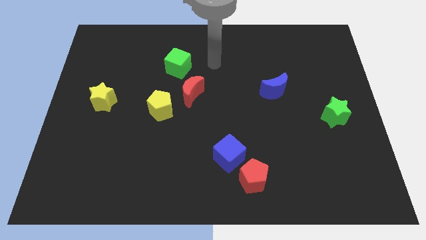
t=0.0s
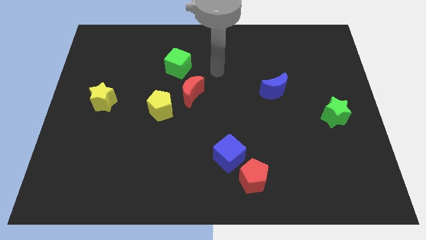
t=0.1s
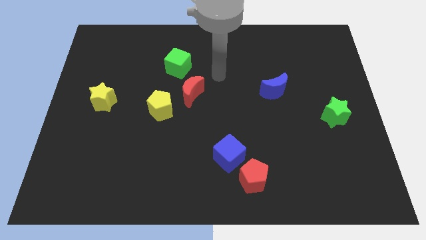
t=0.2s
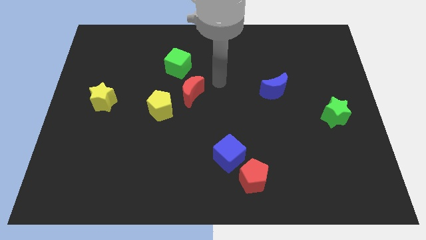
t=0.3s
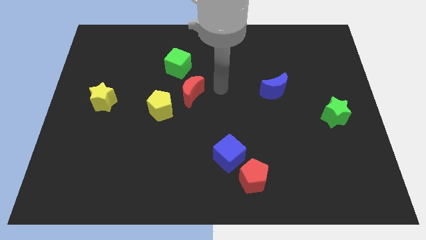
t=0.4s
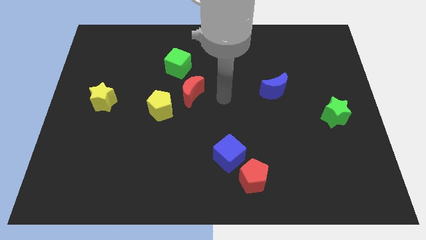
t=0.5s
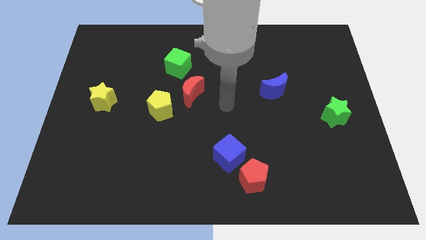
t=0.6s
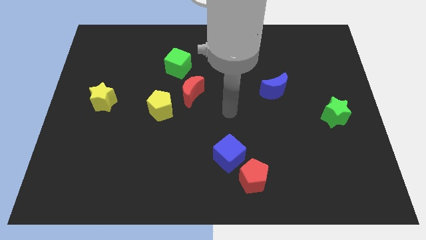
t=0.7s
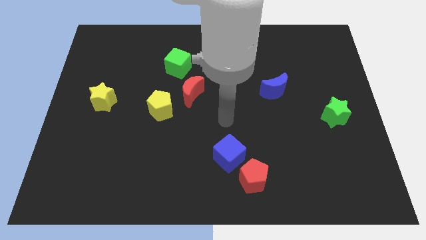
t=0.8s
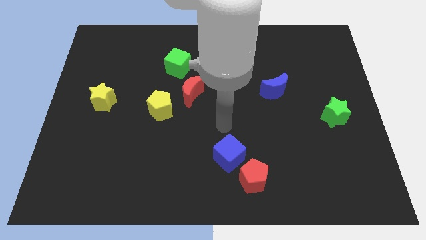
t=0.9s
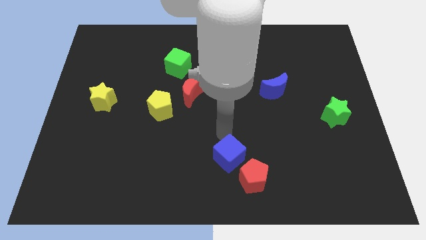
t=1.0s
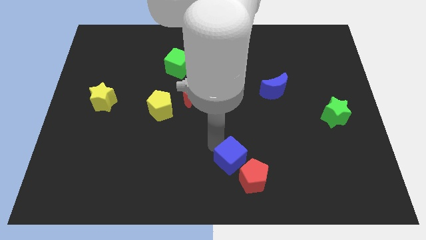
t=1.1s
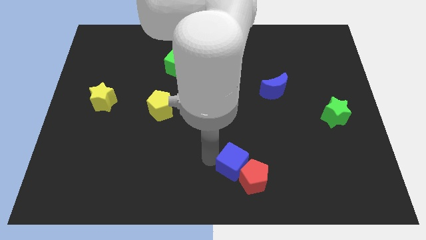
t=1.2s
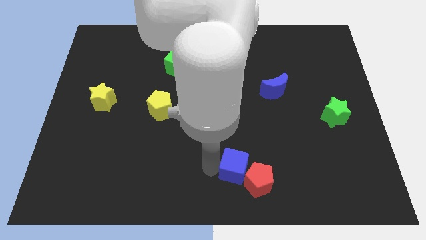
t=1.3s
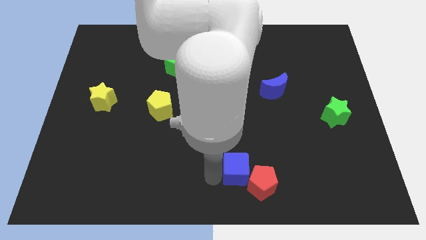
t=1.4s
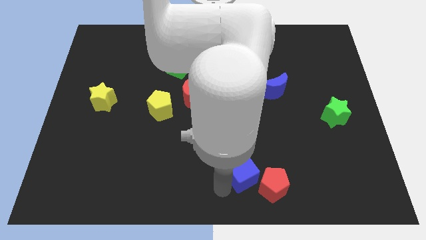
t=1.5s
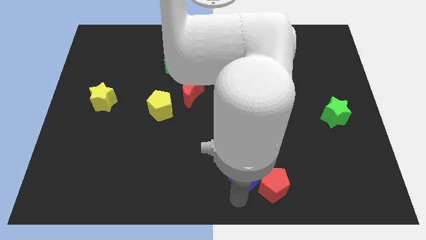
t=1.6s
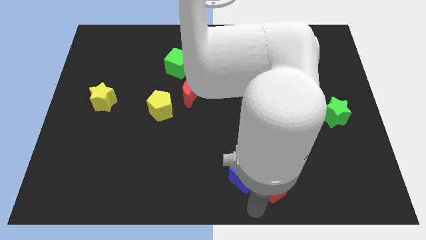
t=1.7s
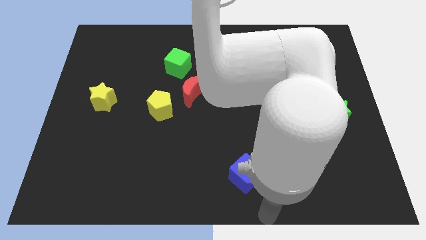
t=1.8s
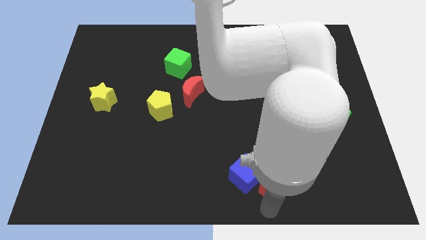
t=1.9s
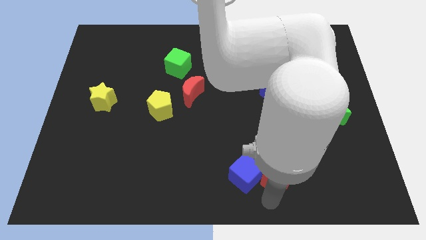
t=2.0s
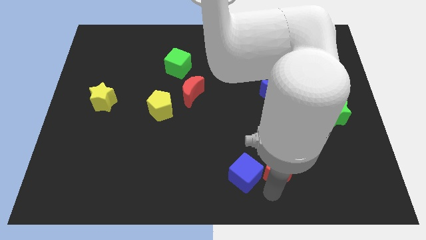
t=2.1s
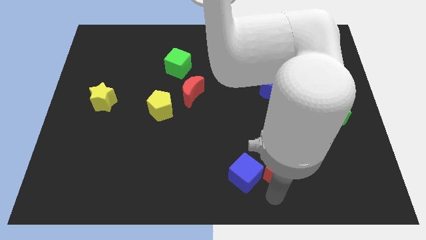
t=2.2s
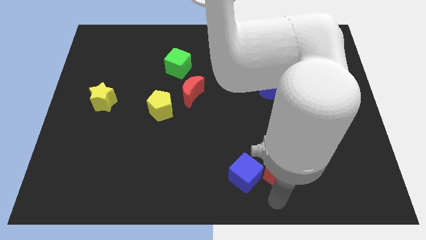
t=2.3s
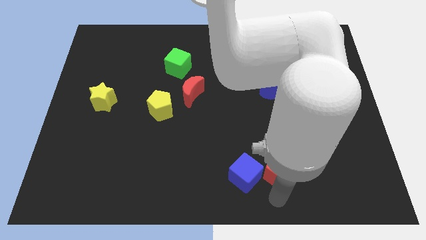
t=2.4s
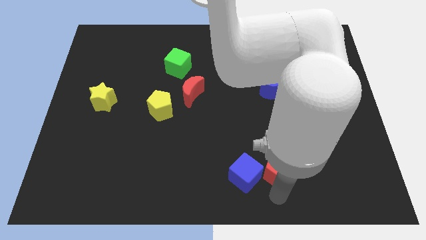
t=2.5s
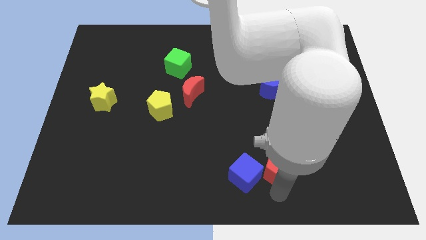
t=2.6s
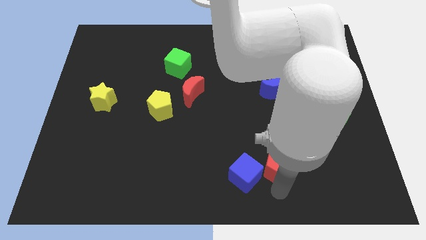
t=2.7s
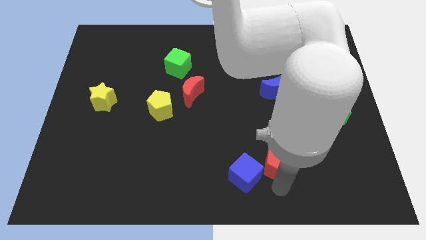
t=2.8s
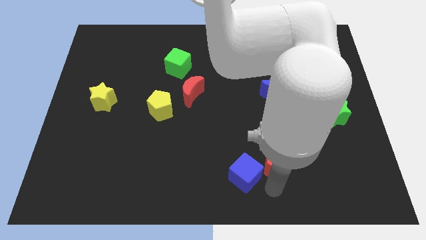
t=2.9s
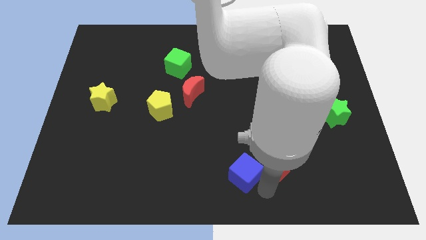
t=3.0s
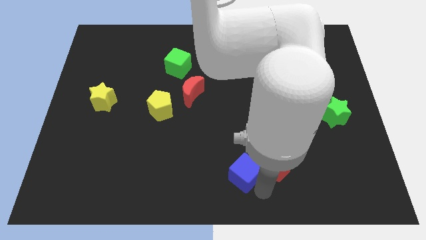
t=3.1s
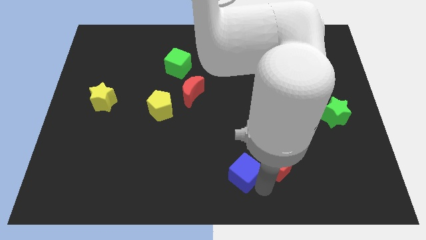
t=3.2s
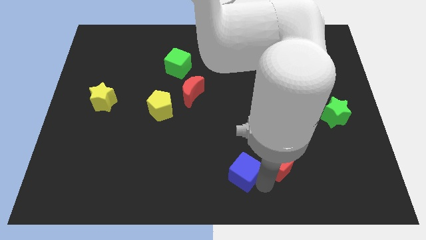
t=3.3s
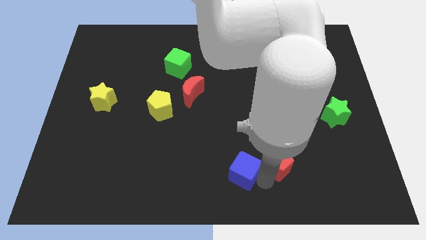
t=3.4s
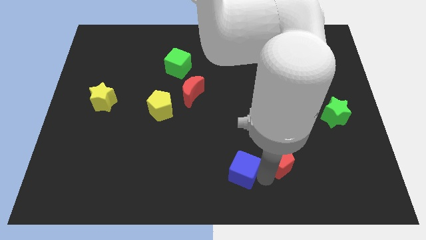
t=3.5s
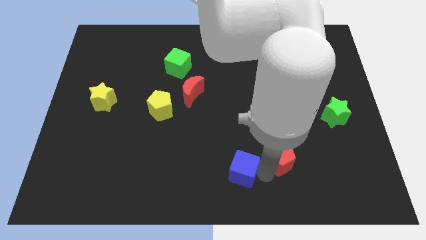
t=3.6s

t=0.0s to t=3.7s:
slightly move the red pentagon up and to the right diagonally

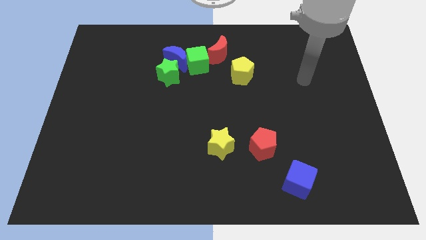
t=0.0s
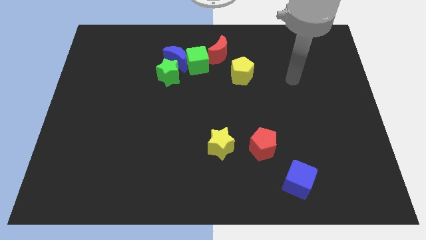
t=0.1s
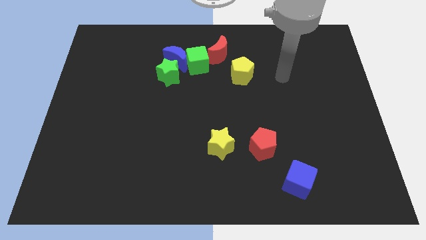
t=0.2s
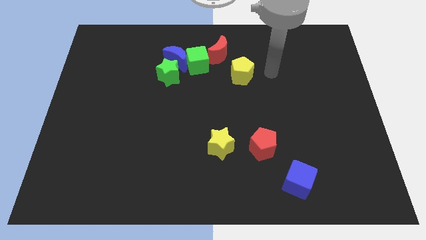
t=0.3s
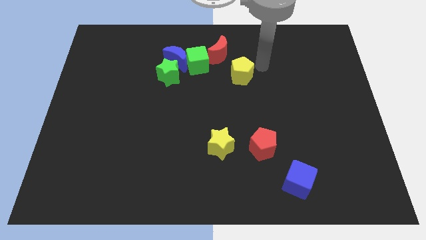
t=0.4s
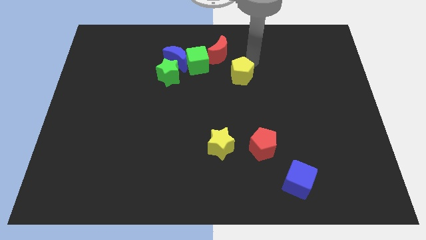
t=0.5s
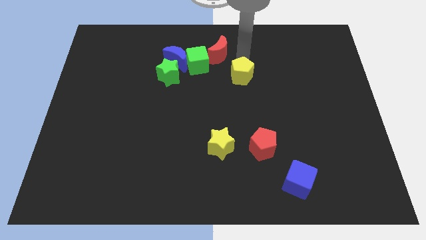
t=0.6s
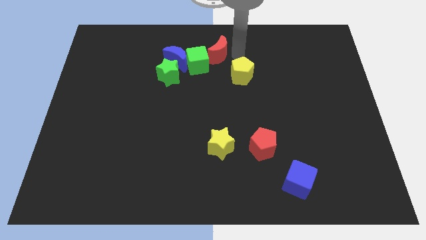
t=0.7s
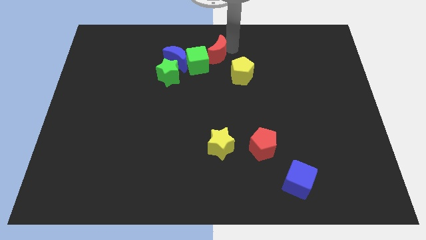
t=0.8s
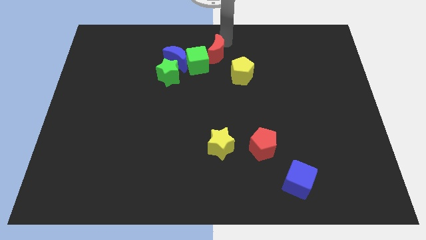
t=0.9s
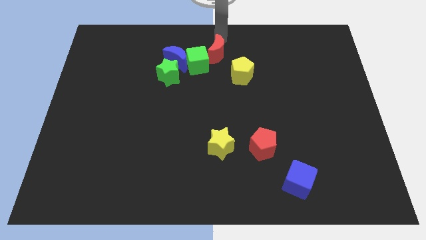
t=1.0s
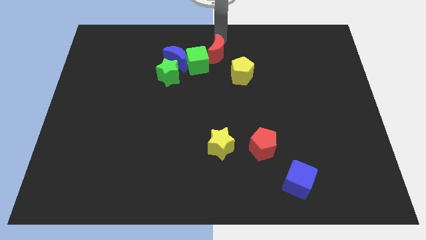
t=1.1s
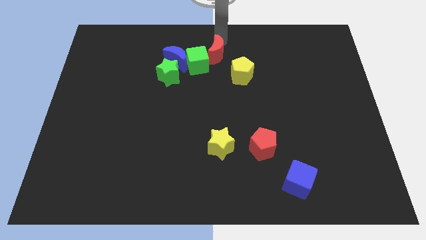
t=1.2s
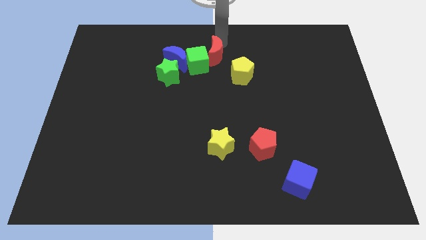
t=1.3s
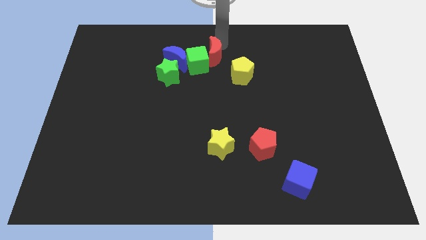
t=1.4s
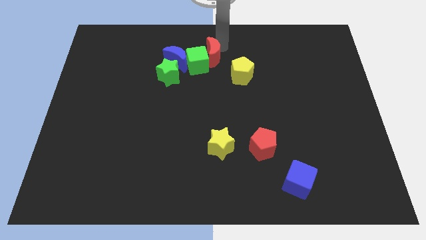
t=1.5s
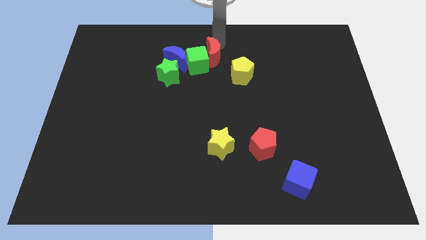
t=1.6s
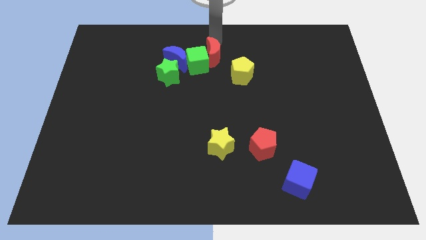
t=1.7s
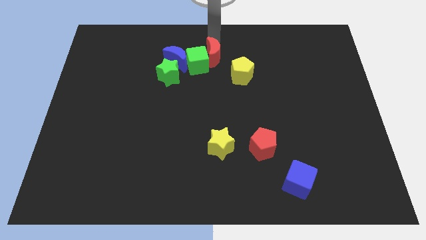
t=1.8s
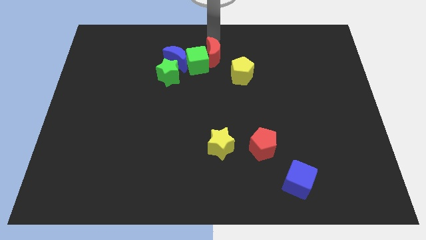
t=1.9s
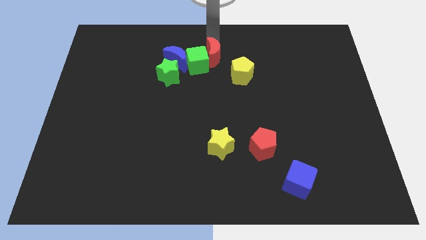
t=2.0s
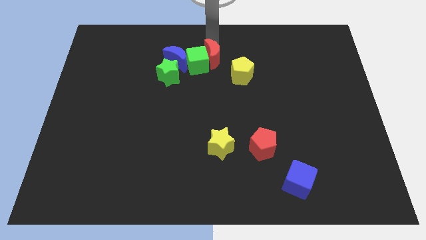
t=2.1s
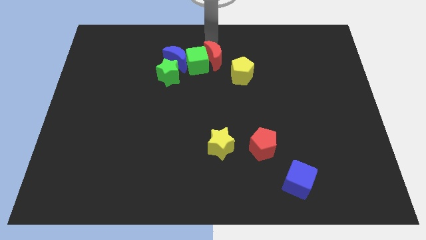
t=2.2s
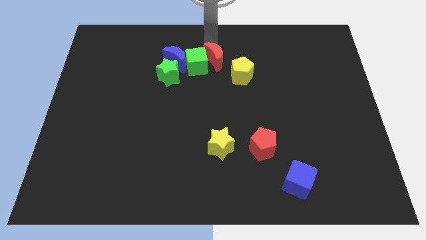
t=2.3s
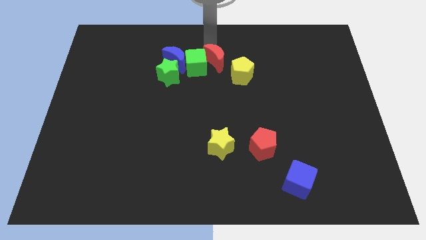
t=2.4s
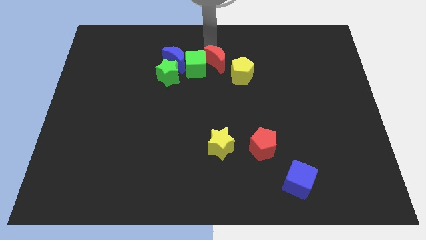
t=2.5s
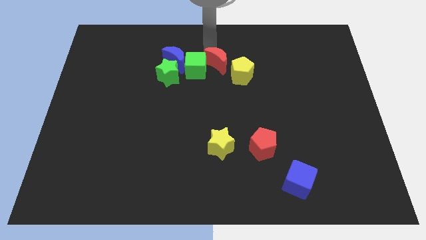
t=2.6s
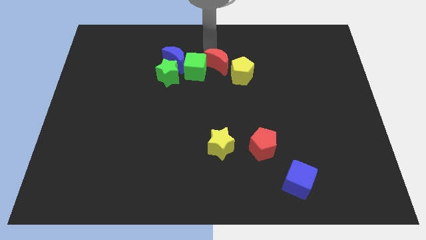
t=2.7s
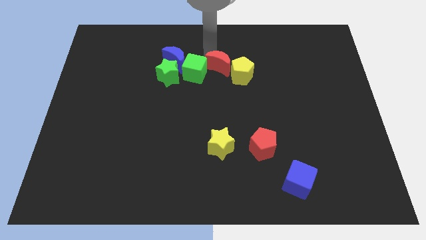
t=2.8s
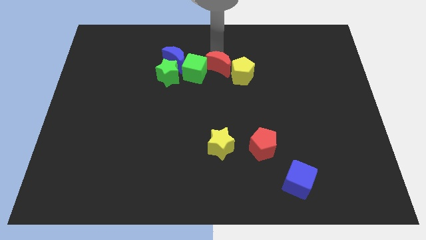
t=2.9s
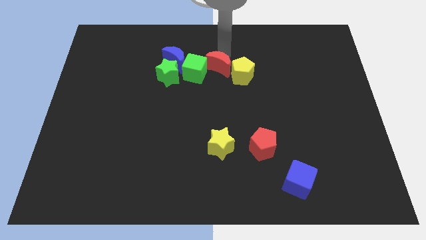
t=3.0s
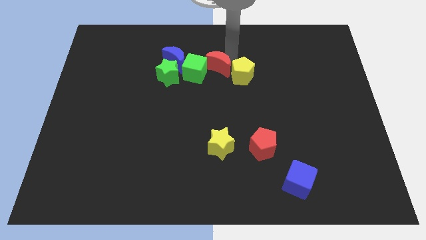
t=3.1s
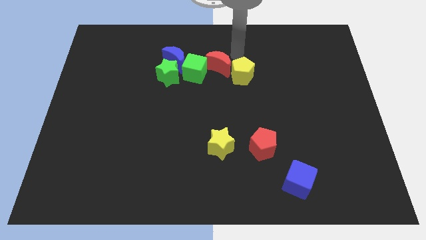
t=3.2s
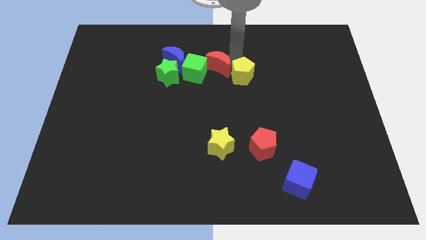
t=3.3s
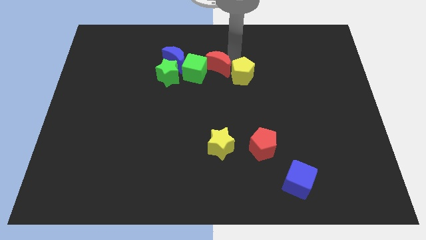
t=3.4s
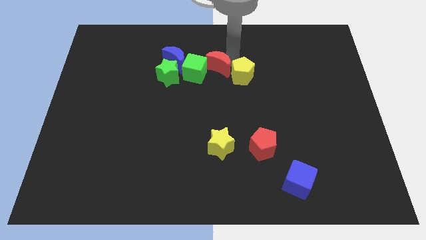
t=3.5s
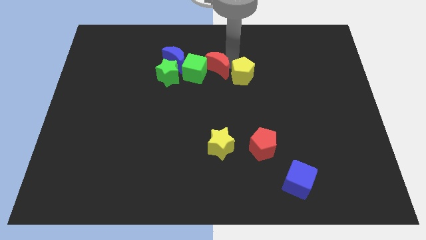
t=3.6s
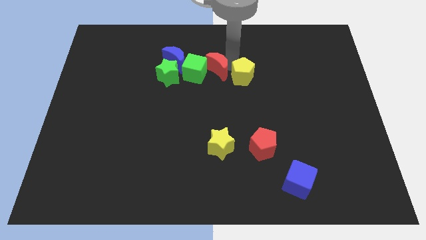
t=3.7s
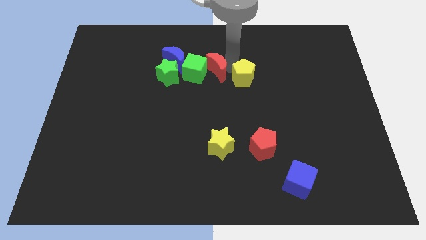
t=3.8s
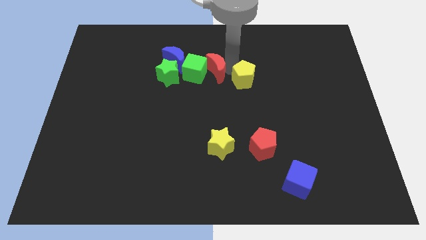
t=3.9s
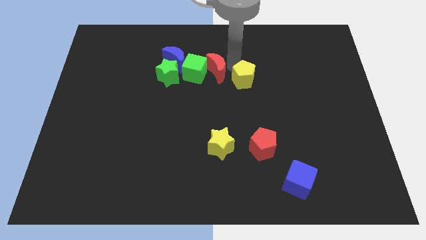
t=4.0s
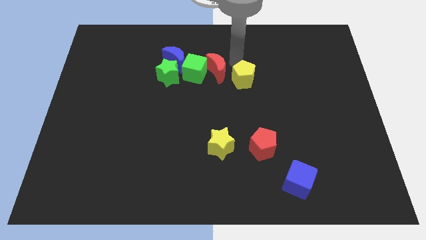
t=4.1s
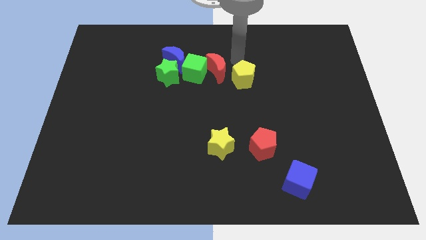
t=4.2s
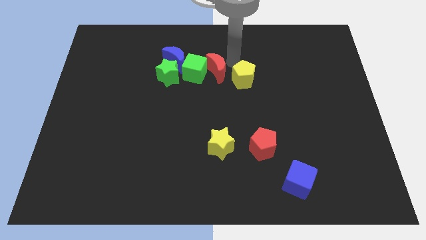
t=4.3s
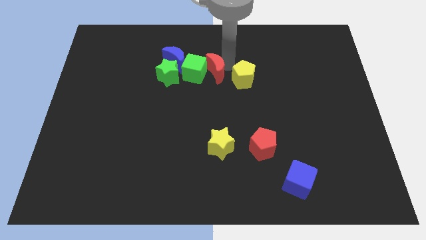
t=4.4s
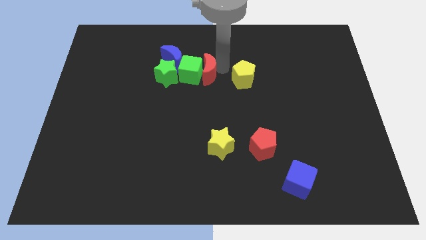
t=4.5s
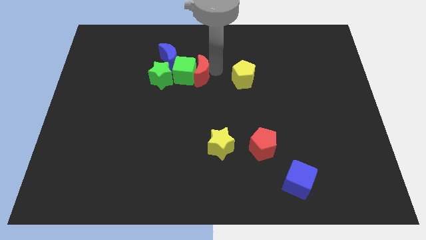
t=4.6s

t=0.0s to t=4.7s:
push the red moon diagonally down and left a little
